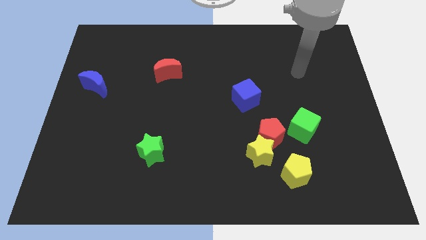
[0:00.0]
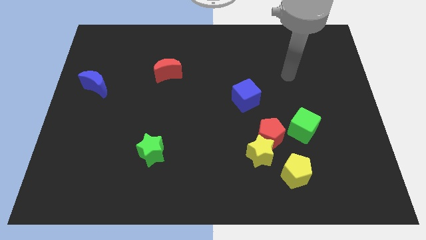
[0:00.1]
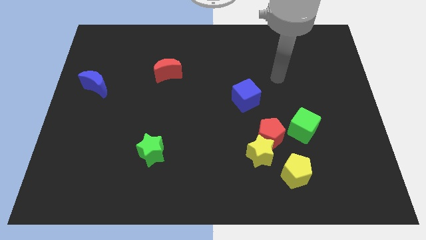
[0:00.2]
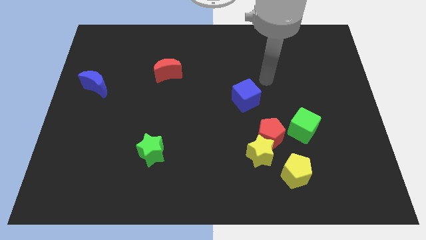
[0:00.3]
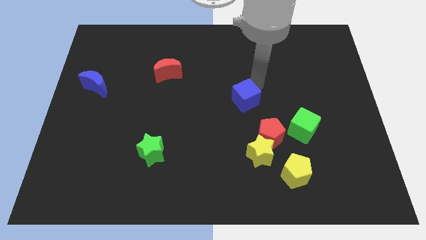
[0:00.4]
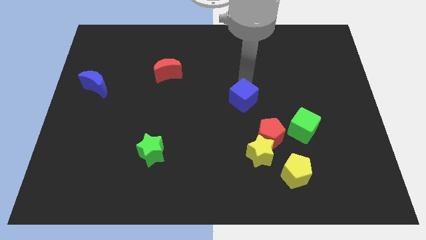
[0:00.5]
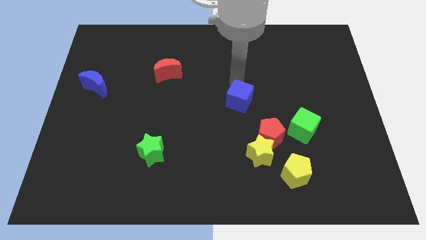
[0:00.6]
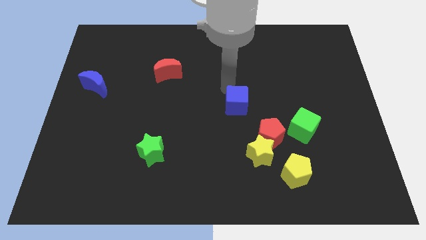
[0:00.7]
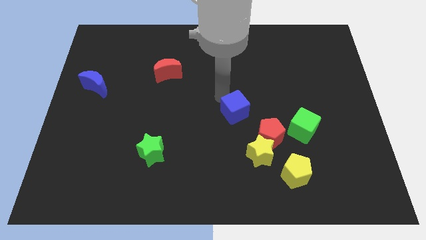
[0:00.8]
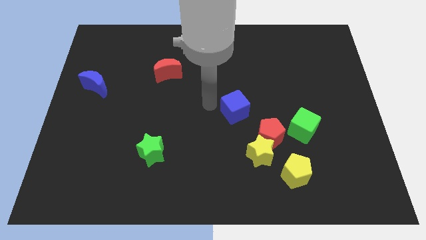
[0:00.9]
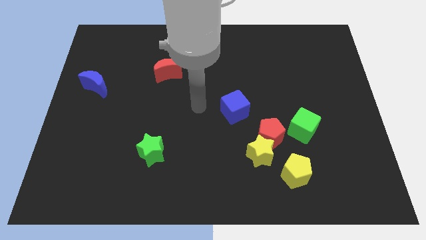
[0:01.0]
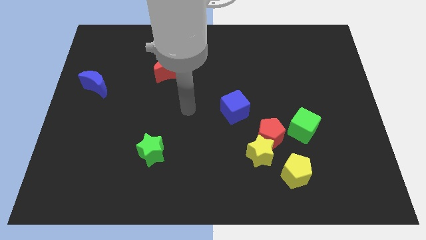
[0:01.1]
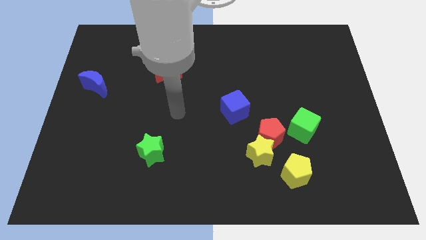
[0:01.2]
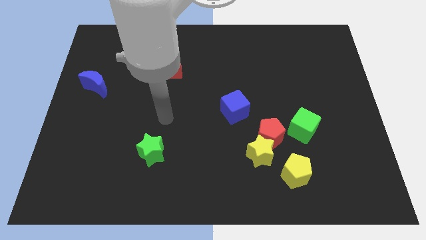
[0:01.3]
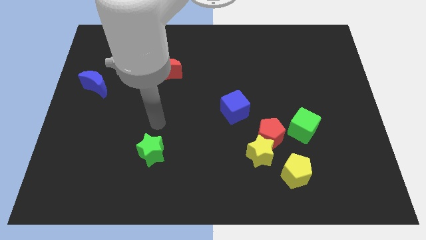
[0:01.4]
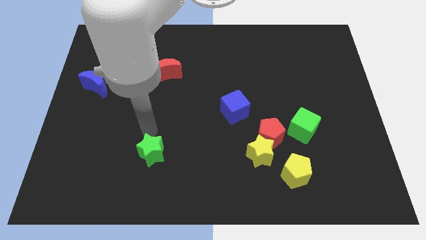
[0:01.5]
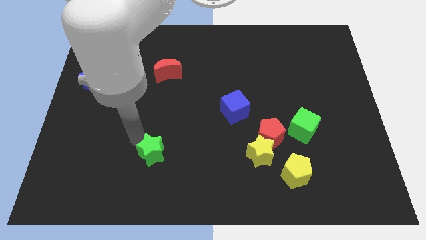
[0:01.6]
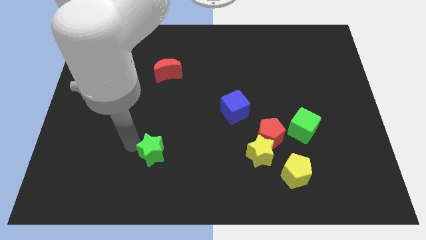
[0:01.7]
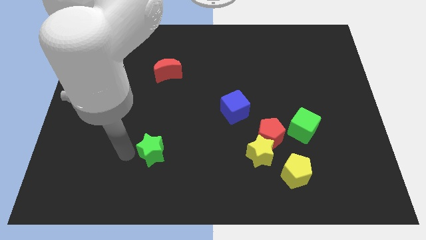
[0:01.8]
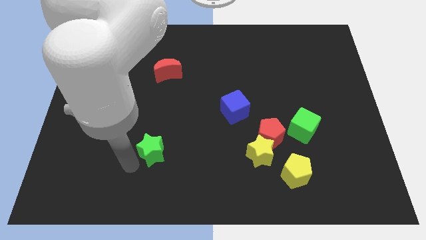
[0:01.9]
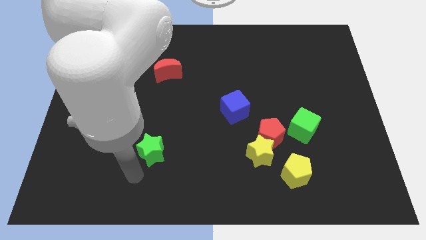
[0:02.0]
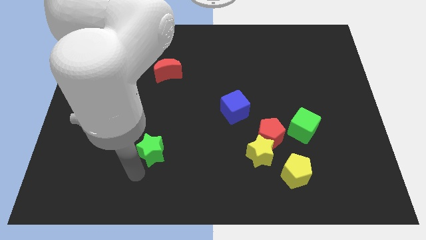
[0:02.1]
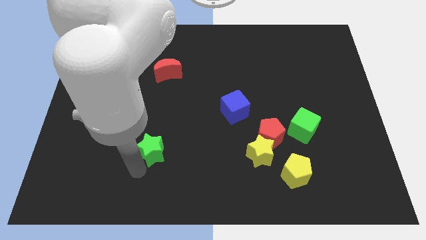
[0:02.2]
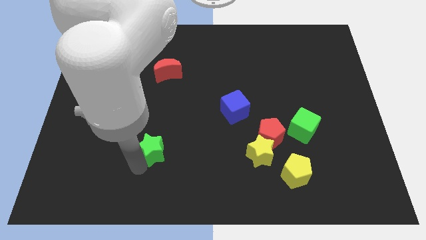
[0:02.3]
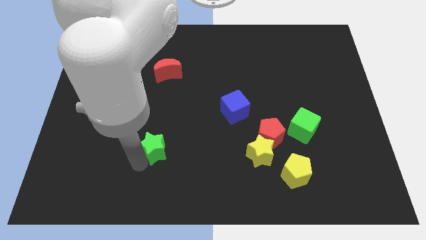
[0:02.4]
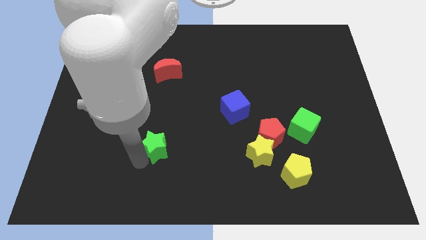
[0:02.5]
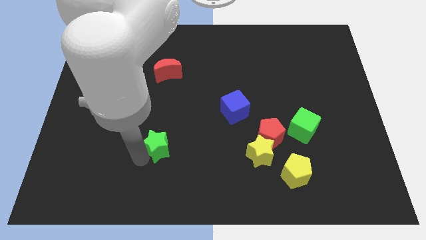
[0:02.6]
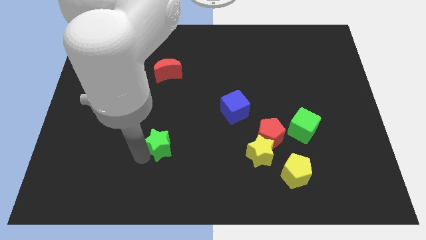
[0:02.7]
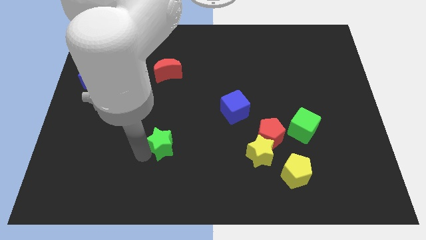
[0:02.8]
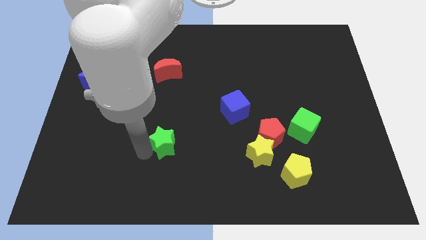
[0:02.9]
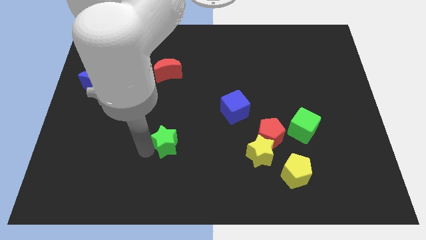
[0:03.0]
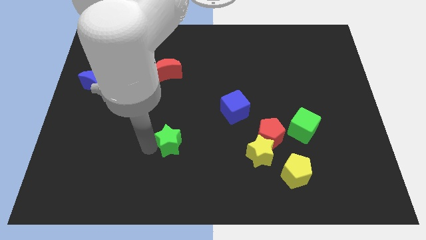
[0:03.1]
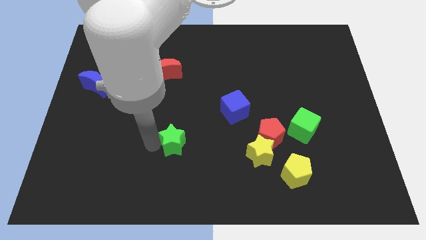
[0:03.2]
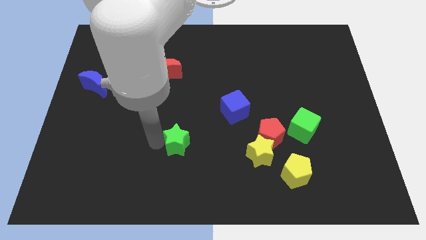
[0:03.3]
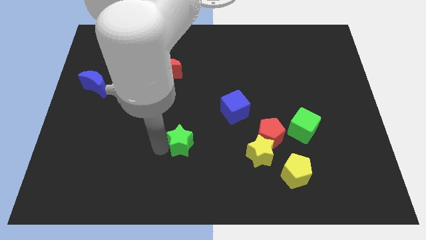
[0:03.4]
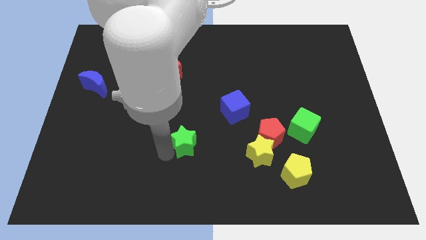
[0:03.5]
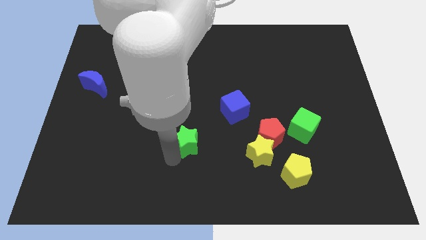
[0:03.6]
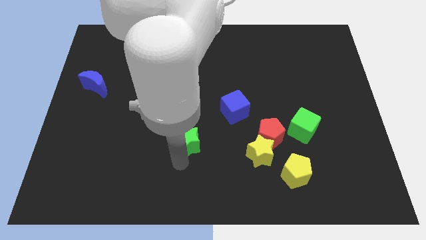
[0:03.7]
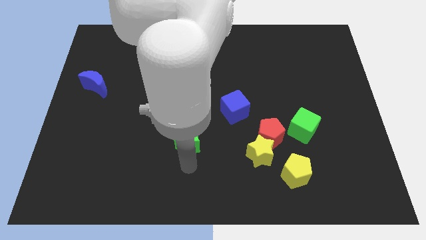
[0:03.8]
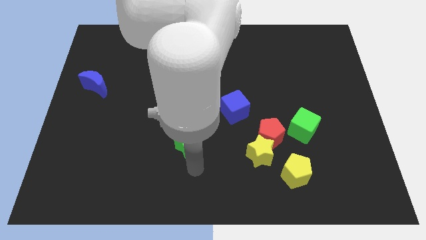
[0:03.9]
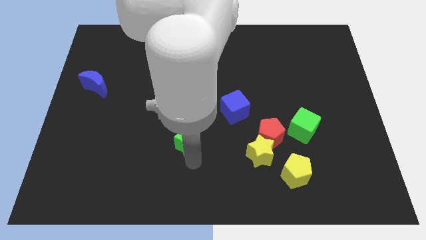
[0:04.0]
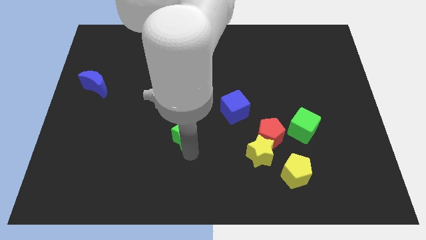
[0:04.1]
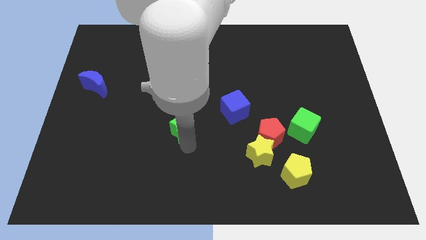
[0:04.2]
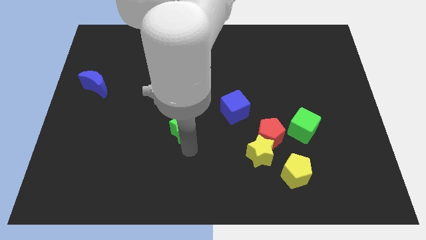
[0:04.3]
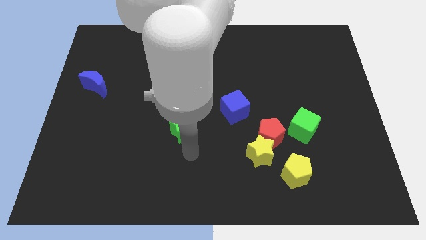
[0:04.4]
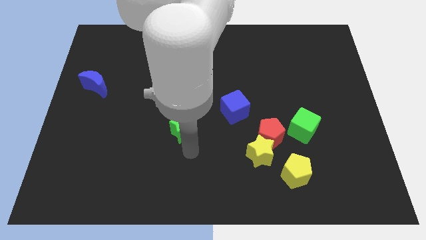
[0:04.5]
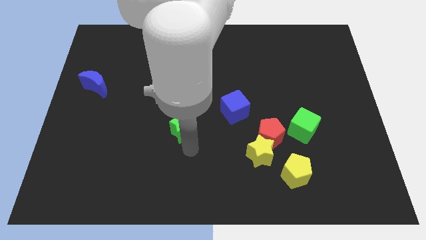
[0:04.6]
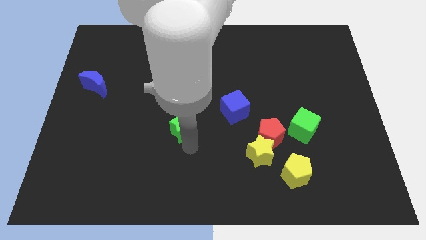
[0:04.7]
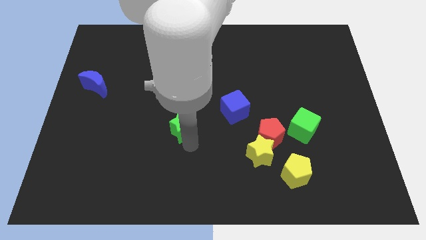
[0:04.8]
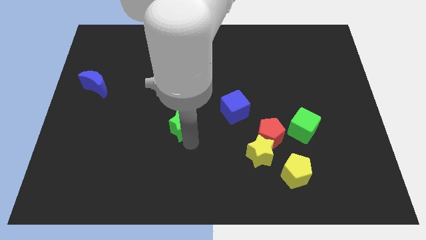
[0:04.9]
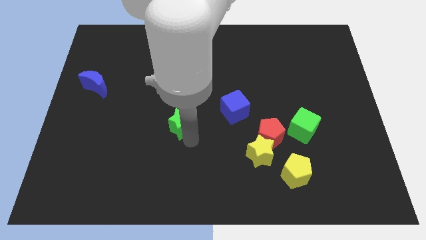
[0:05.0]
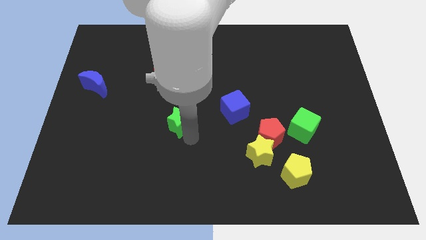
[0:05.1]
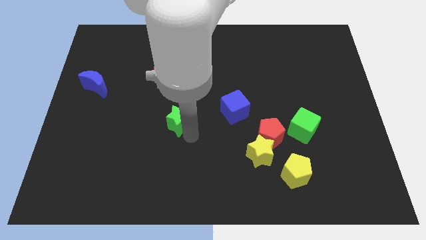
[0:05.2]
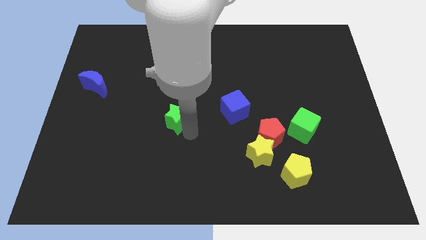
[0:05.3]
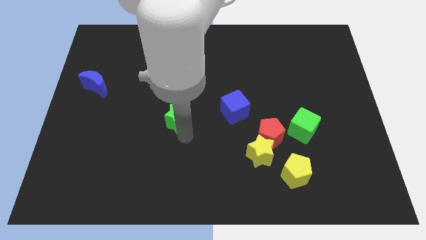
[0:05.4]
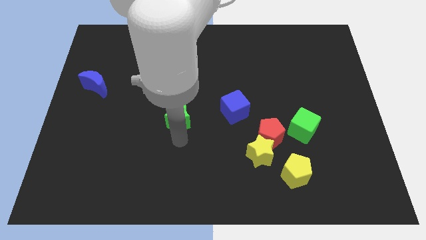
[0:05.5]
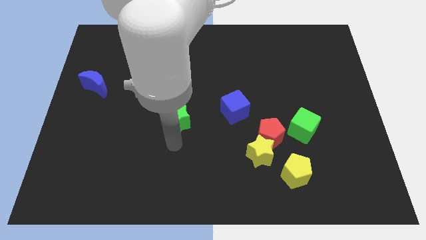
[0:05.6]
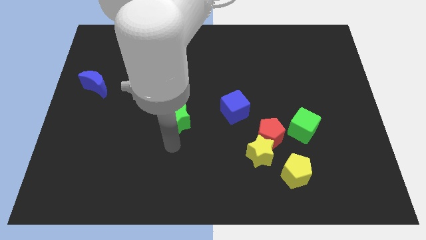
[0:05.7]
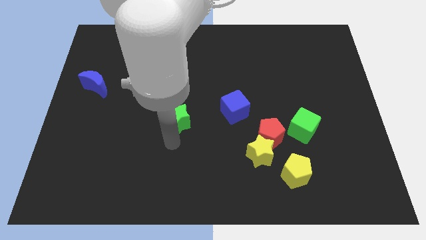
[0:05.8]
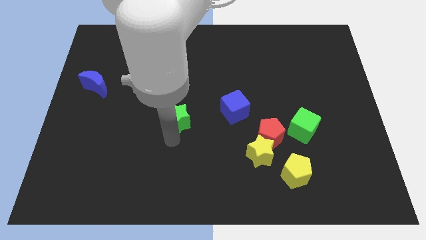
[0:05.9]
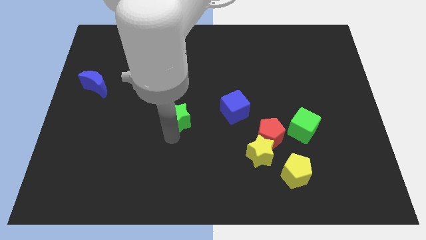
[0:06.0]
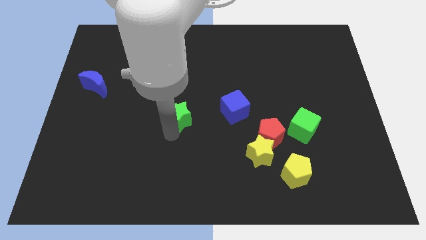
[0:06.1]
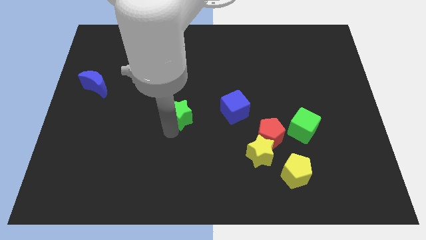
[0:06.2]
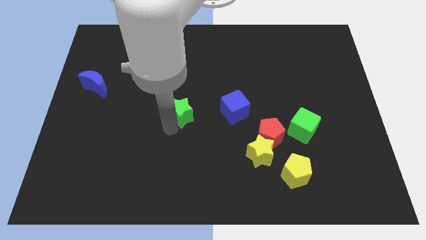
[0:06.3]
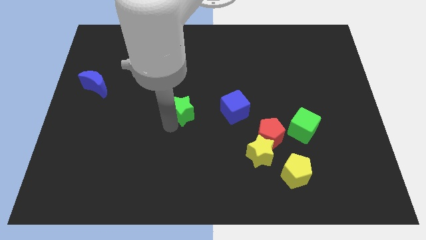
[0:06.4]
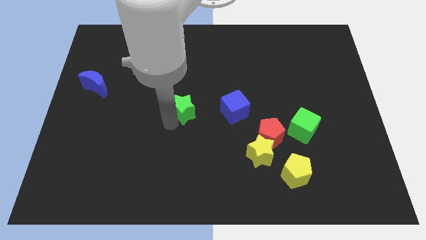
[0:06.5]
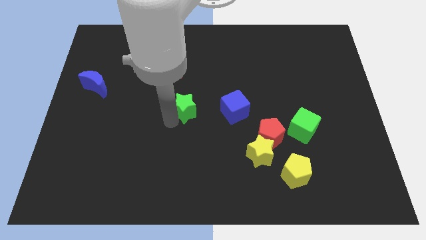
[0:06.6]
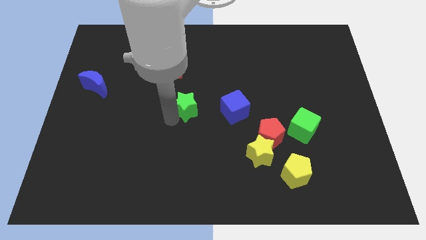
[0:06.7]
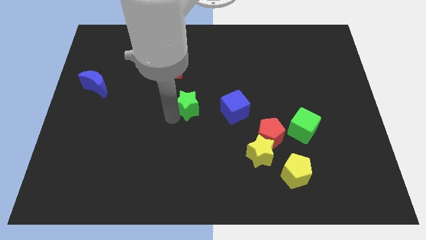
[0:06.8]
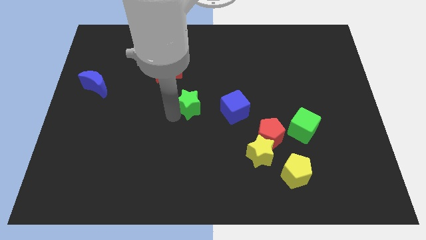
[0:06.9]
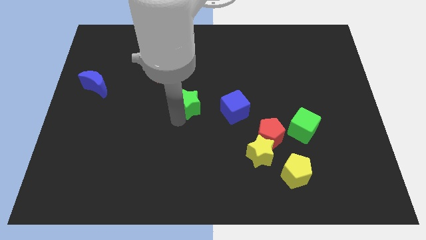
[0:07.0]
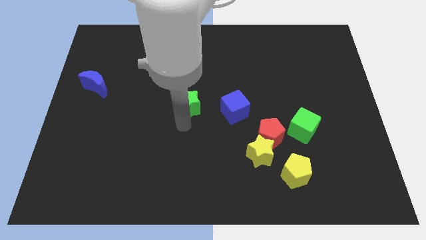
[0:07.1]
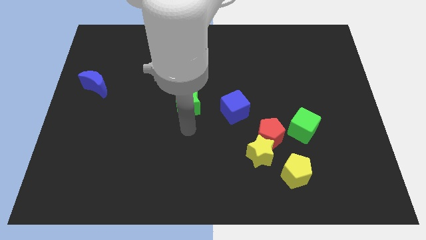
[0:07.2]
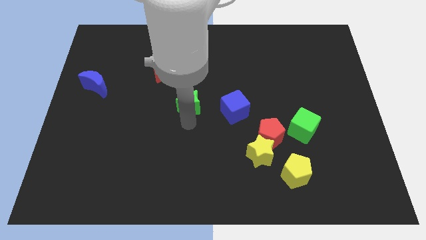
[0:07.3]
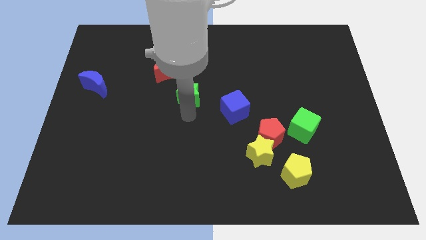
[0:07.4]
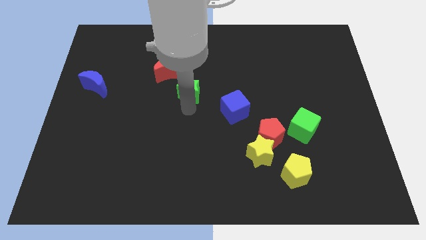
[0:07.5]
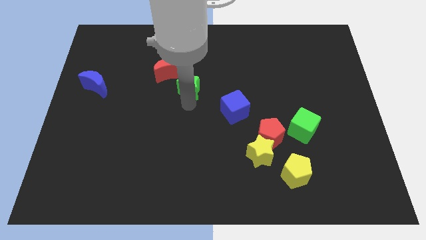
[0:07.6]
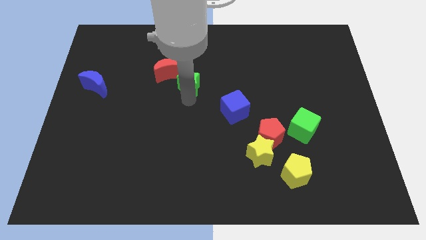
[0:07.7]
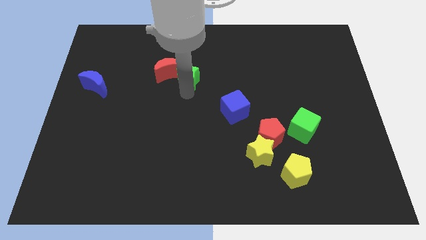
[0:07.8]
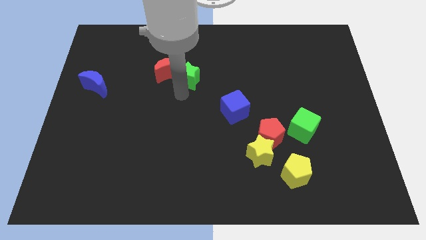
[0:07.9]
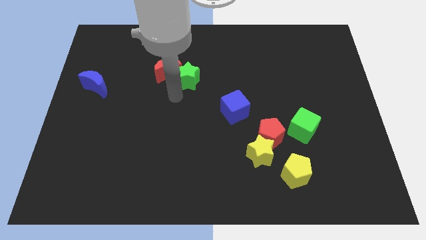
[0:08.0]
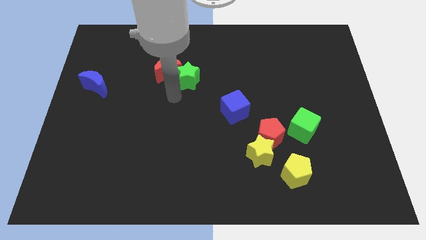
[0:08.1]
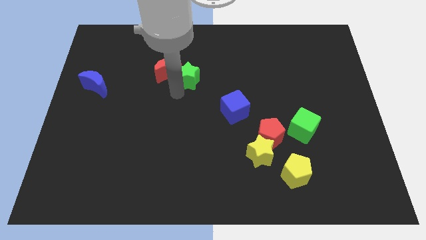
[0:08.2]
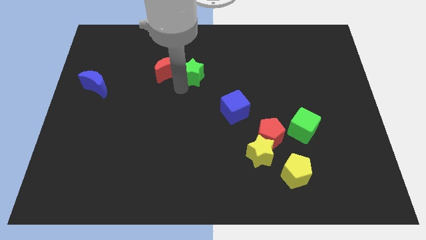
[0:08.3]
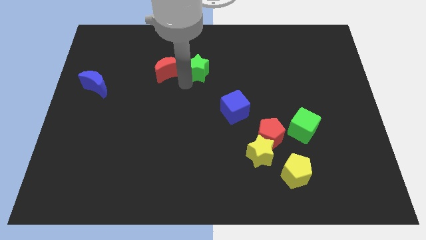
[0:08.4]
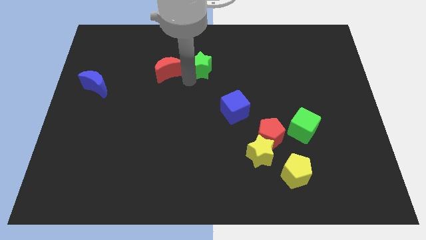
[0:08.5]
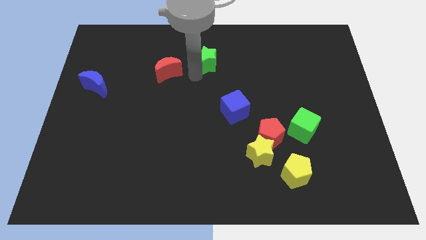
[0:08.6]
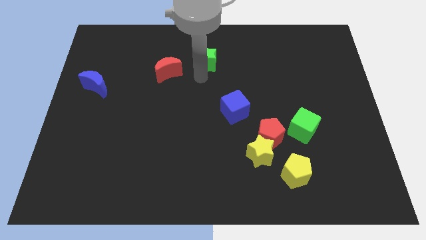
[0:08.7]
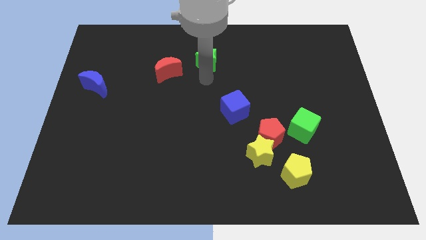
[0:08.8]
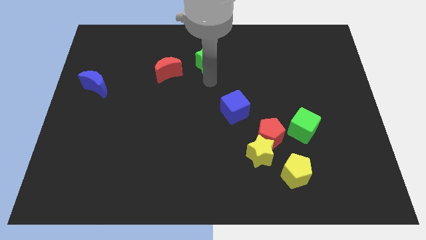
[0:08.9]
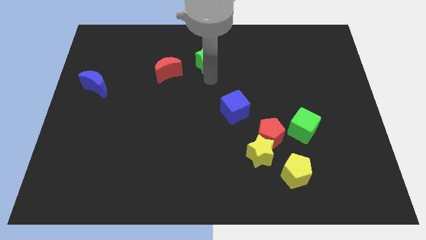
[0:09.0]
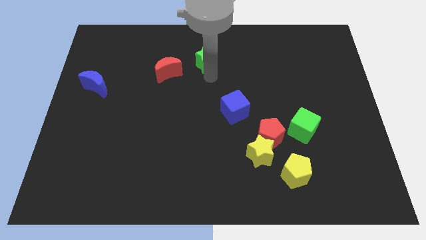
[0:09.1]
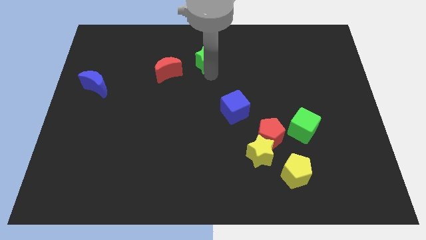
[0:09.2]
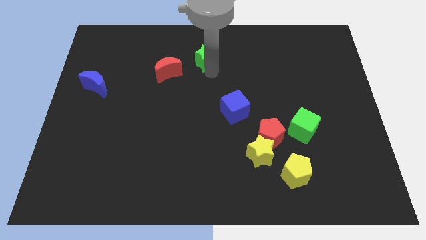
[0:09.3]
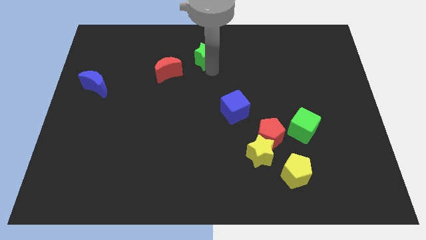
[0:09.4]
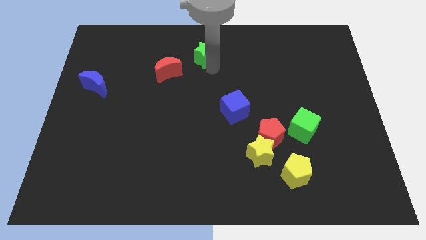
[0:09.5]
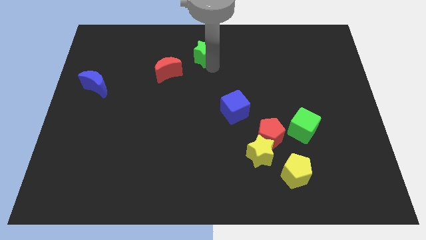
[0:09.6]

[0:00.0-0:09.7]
move the green star to the top side
